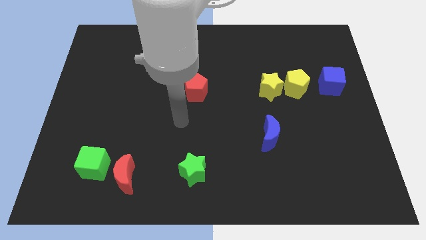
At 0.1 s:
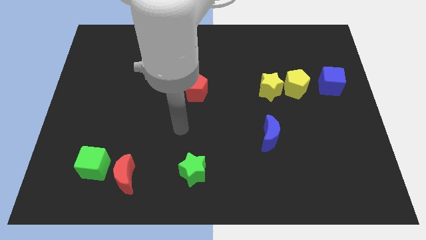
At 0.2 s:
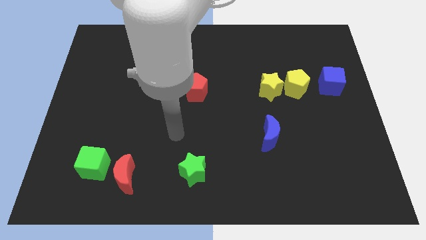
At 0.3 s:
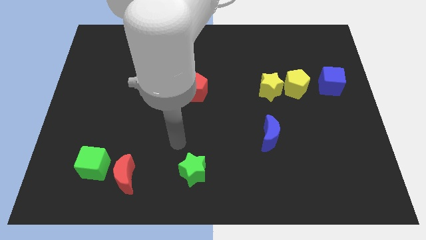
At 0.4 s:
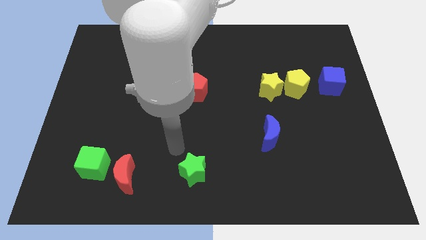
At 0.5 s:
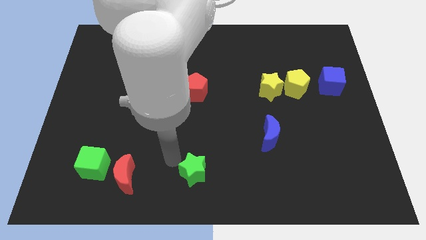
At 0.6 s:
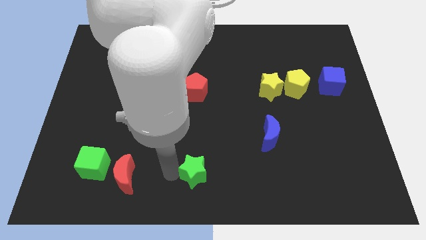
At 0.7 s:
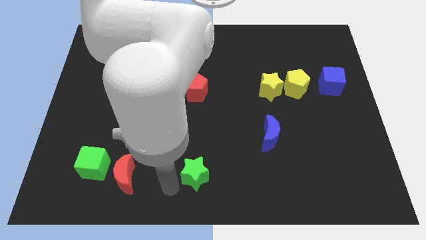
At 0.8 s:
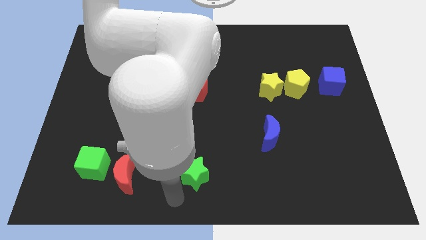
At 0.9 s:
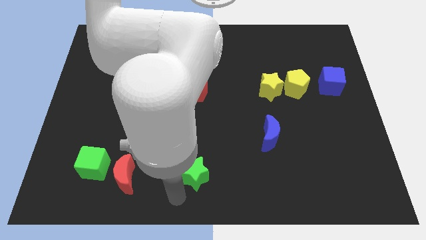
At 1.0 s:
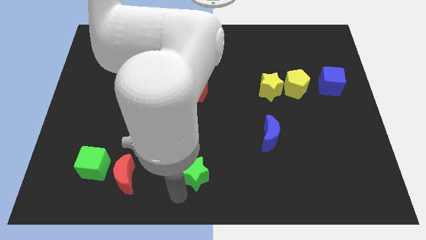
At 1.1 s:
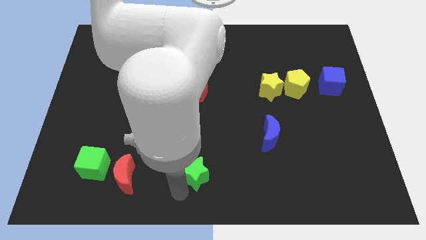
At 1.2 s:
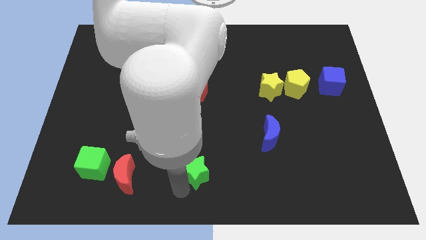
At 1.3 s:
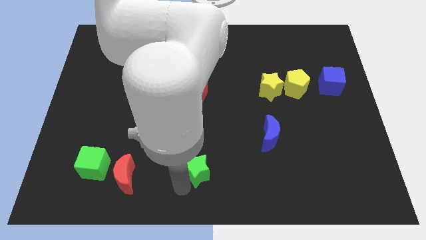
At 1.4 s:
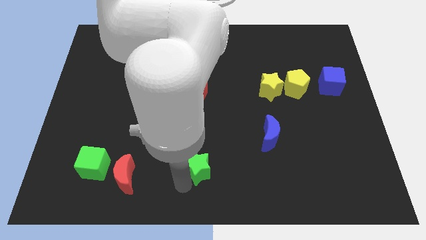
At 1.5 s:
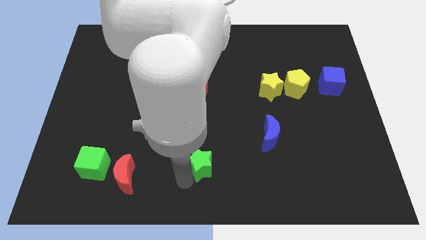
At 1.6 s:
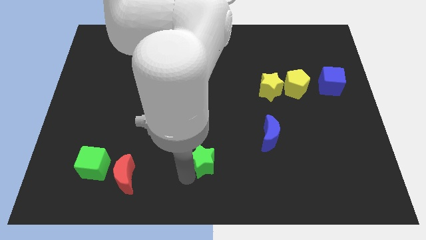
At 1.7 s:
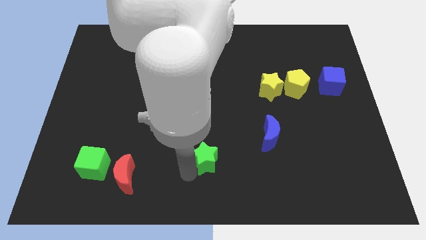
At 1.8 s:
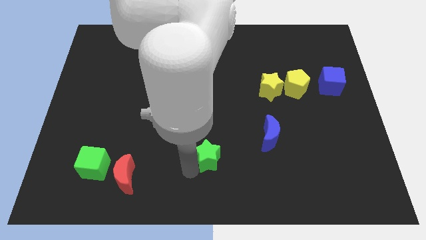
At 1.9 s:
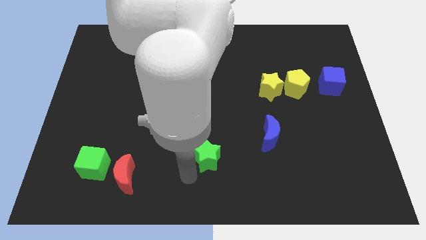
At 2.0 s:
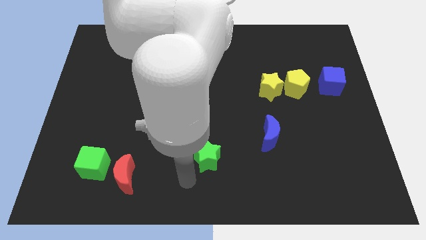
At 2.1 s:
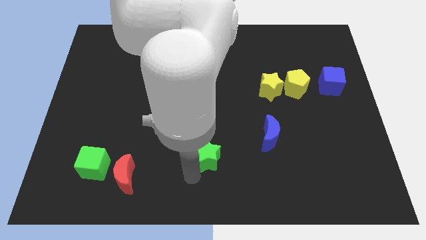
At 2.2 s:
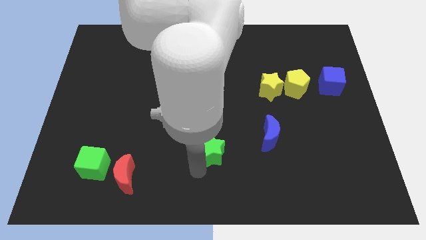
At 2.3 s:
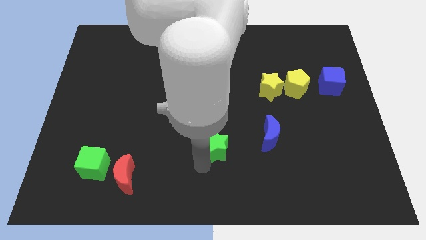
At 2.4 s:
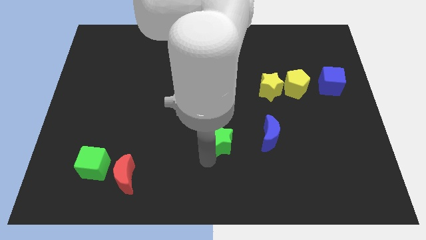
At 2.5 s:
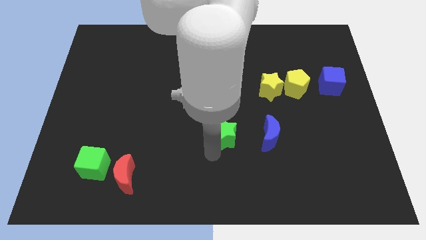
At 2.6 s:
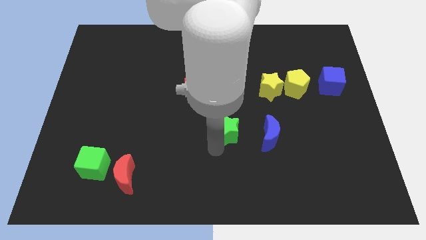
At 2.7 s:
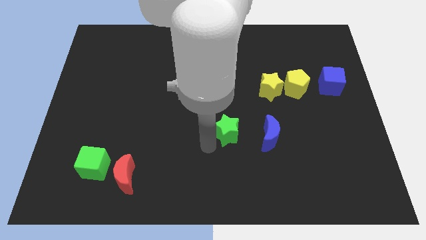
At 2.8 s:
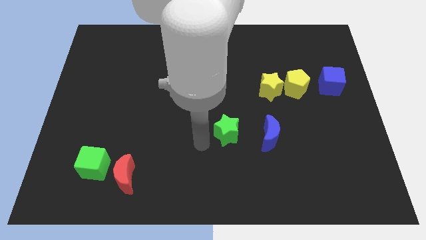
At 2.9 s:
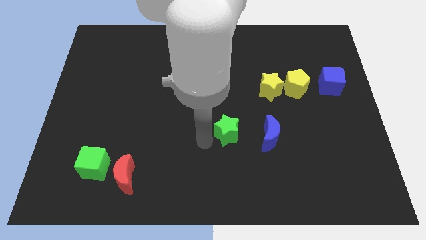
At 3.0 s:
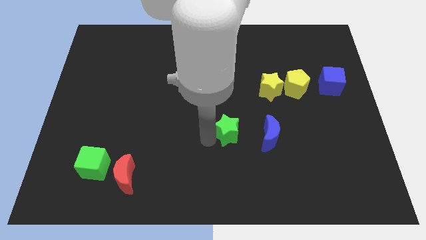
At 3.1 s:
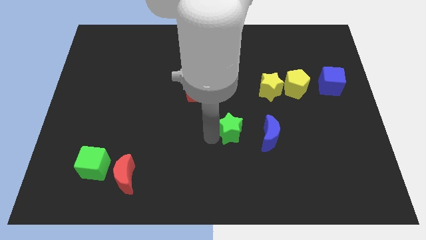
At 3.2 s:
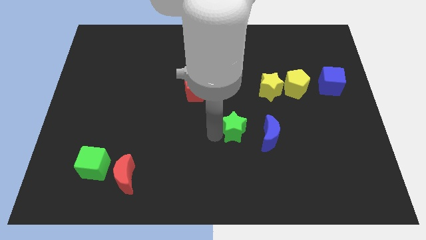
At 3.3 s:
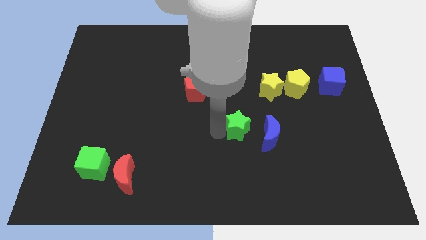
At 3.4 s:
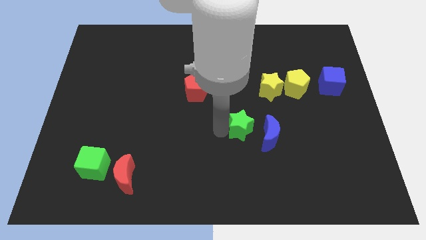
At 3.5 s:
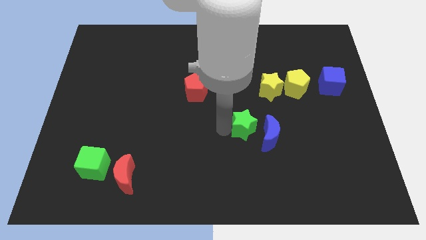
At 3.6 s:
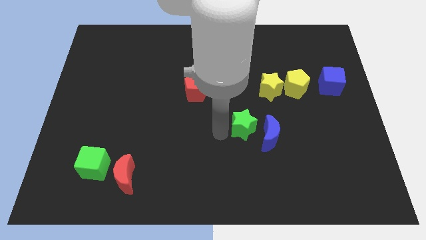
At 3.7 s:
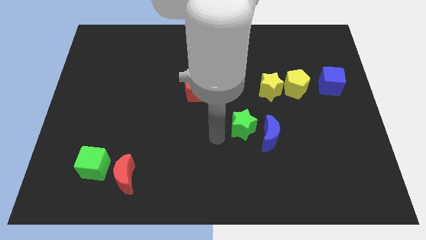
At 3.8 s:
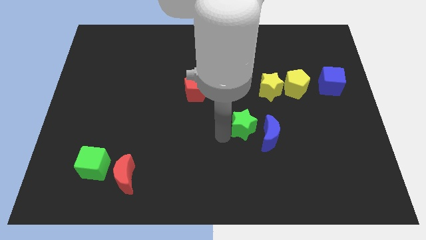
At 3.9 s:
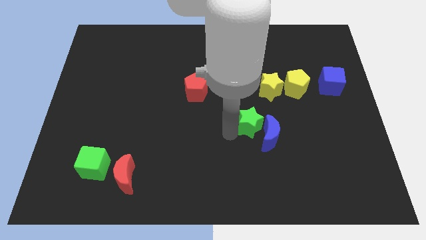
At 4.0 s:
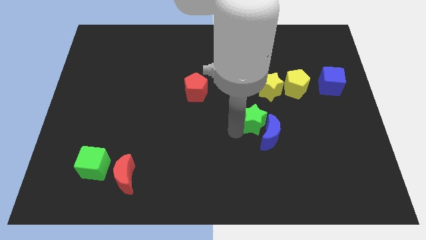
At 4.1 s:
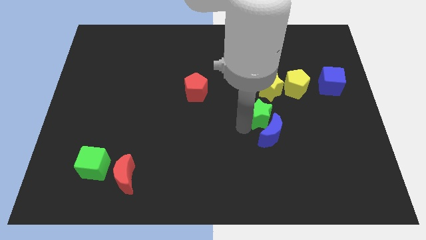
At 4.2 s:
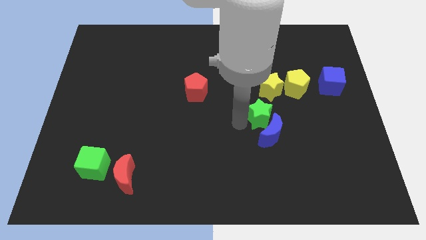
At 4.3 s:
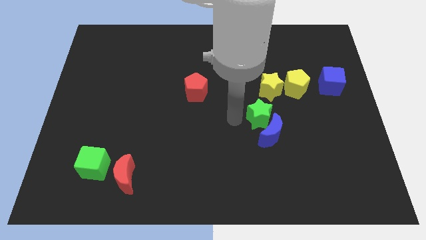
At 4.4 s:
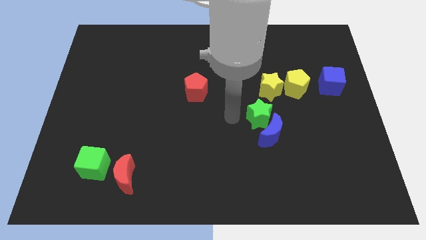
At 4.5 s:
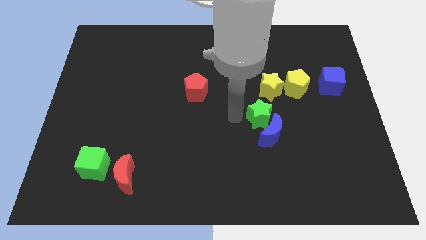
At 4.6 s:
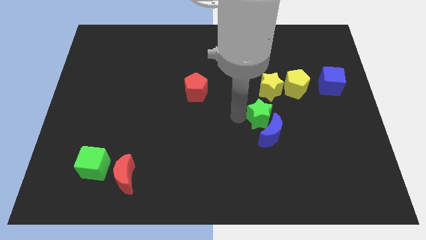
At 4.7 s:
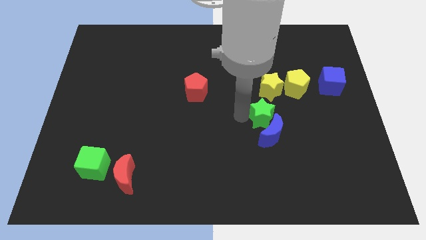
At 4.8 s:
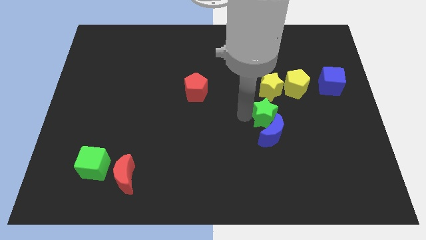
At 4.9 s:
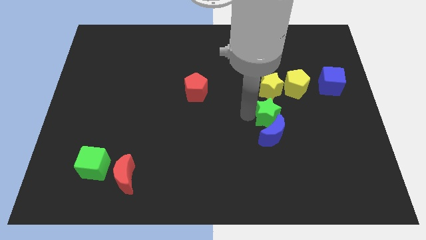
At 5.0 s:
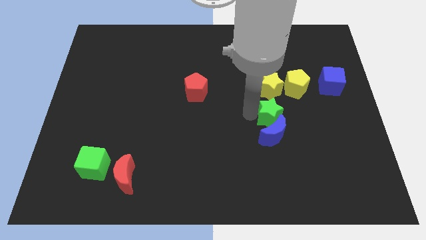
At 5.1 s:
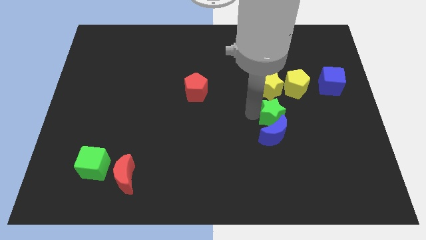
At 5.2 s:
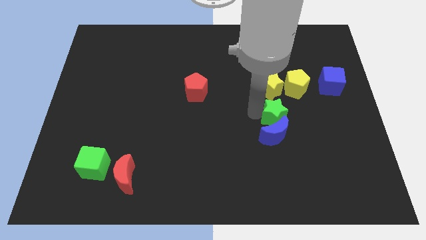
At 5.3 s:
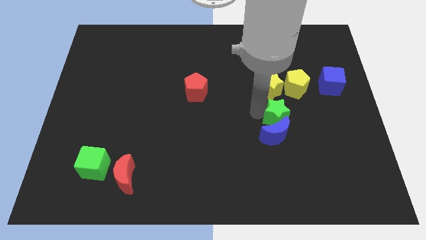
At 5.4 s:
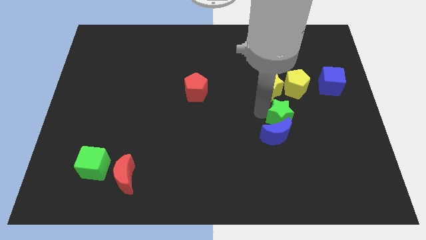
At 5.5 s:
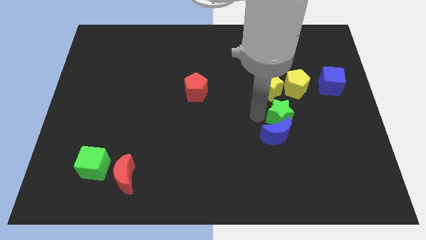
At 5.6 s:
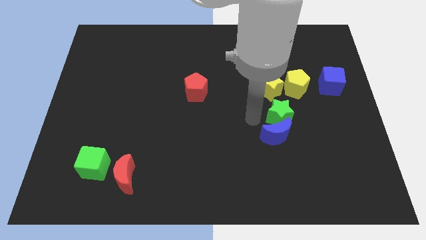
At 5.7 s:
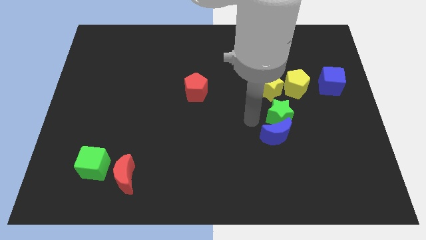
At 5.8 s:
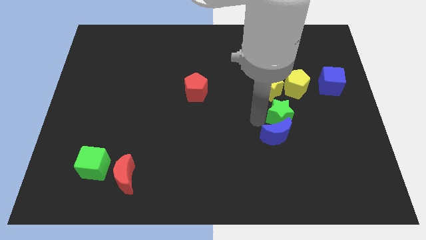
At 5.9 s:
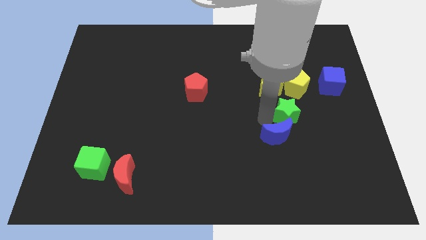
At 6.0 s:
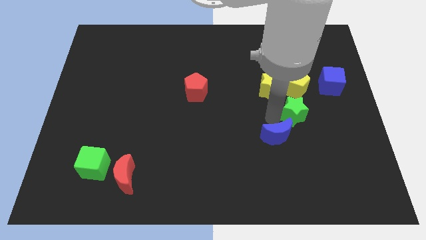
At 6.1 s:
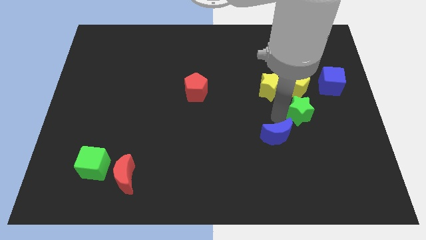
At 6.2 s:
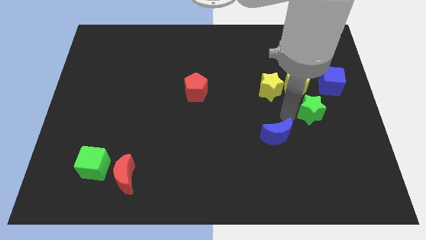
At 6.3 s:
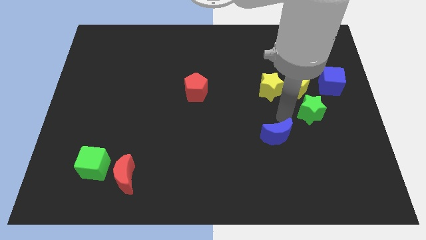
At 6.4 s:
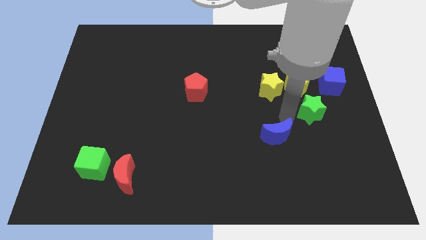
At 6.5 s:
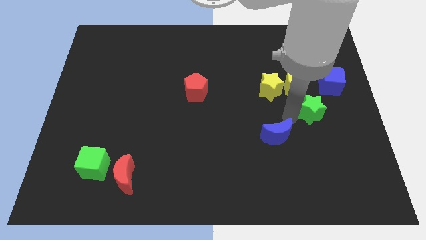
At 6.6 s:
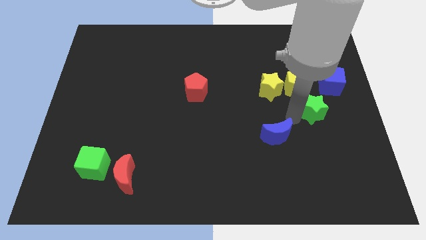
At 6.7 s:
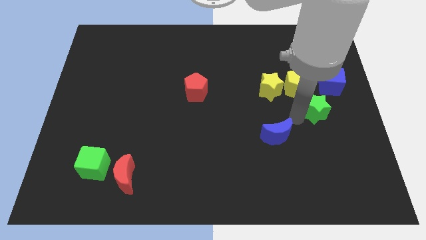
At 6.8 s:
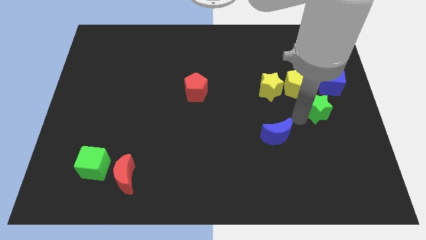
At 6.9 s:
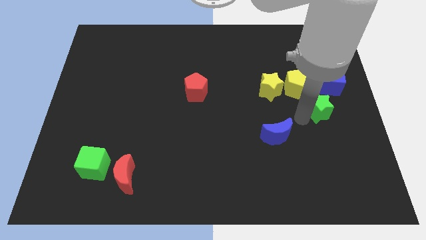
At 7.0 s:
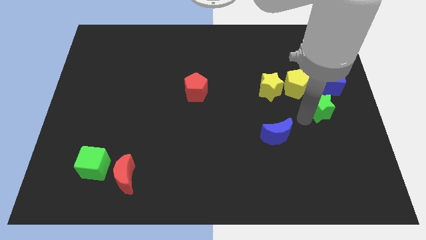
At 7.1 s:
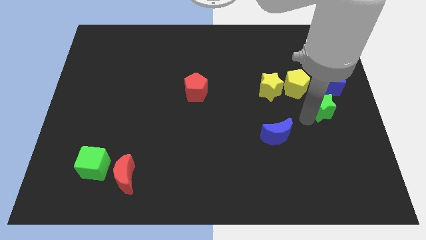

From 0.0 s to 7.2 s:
put the green star to the right side
